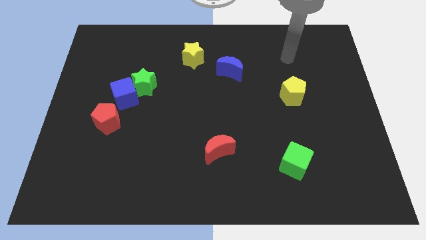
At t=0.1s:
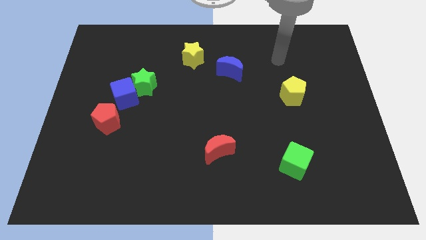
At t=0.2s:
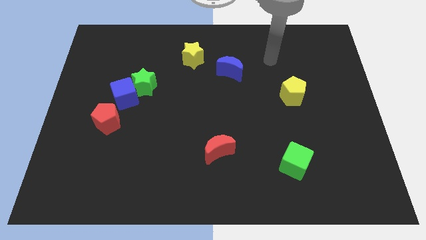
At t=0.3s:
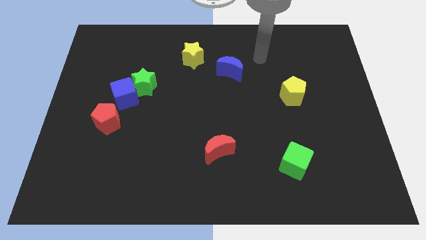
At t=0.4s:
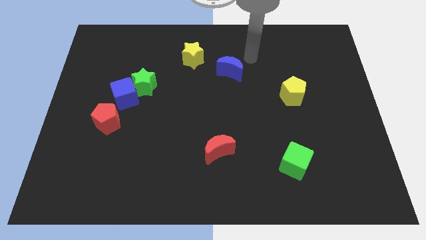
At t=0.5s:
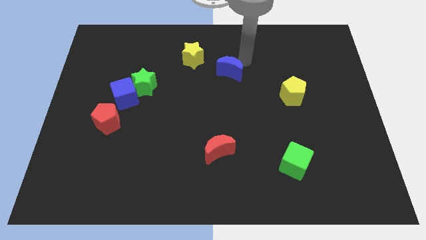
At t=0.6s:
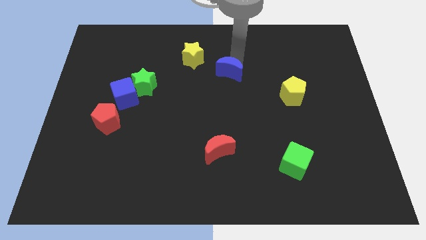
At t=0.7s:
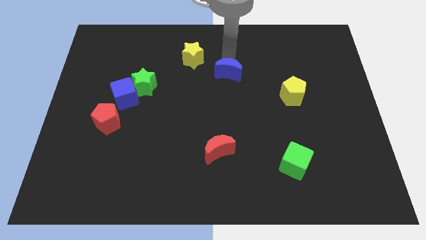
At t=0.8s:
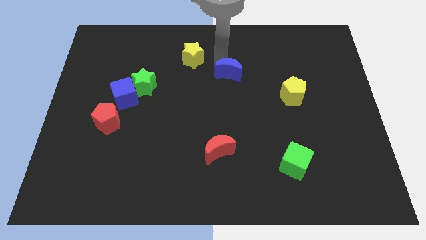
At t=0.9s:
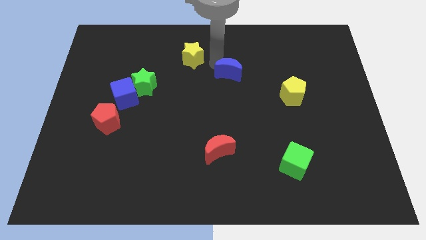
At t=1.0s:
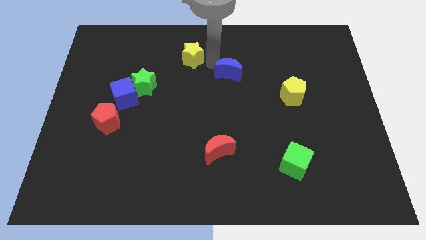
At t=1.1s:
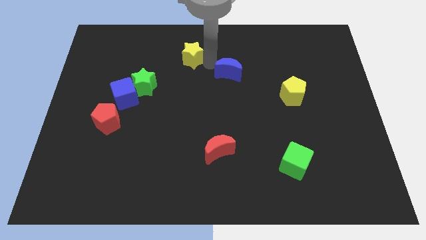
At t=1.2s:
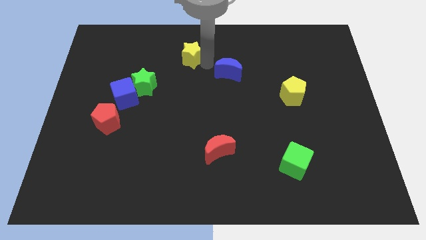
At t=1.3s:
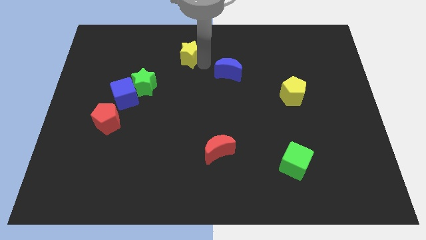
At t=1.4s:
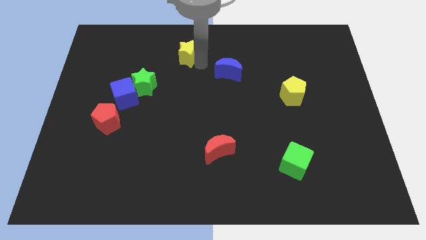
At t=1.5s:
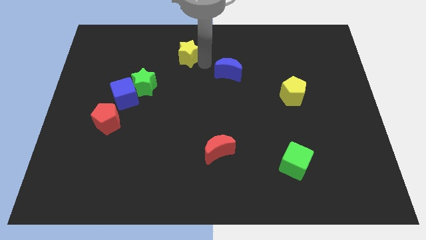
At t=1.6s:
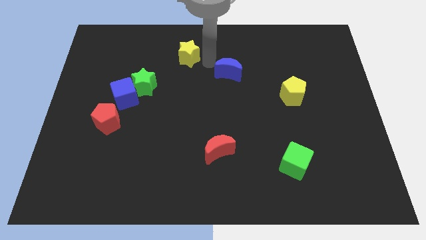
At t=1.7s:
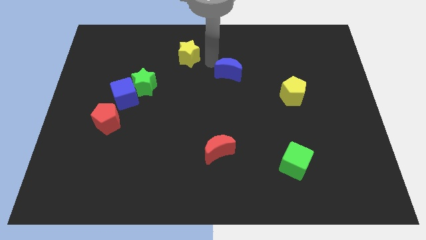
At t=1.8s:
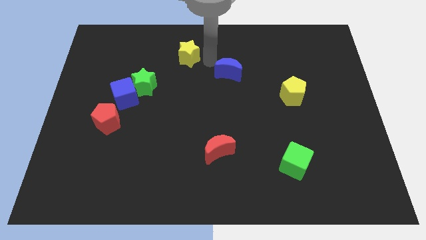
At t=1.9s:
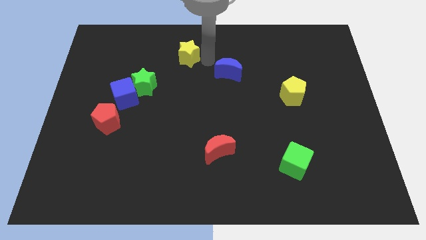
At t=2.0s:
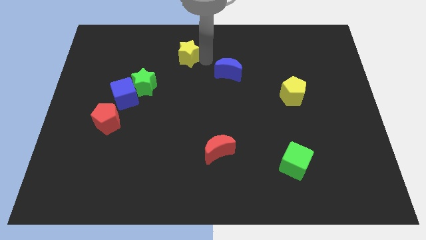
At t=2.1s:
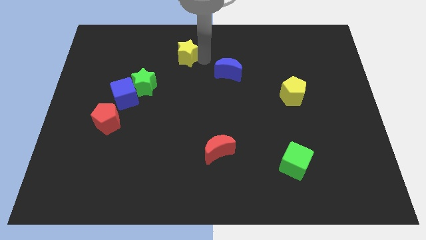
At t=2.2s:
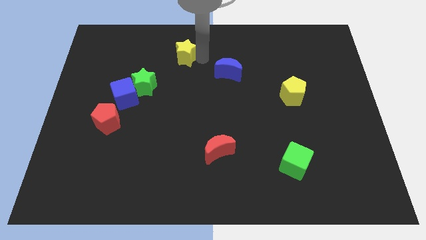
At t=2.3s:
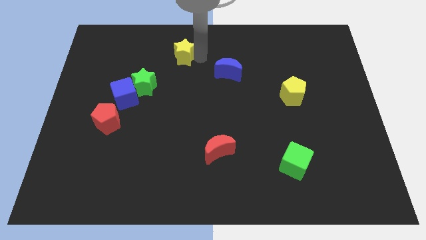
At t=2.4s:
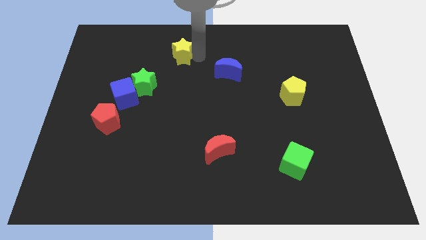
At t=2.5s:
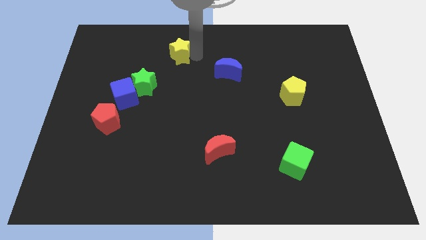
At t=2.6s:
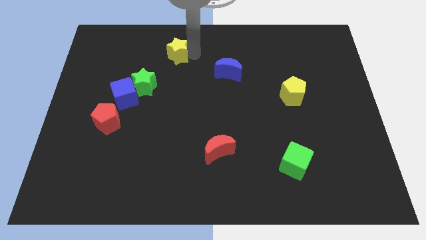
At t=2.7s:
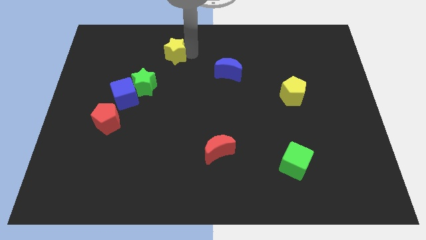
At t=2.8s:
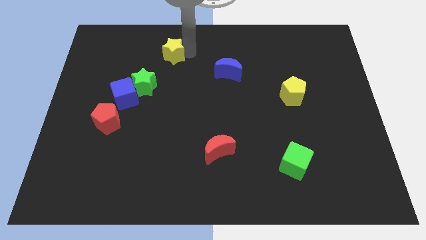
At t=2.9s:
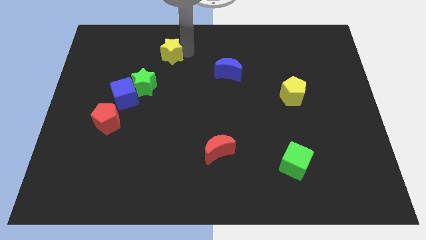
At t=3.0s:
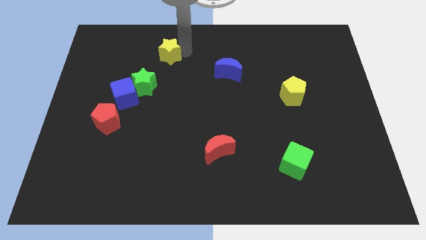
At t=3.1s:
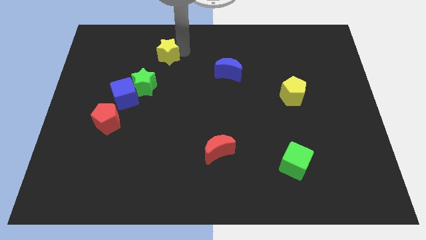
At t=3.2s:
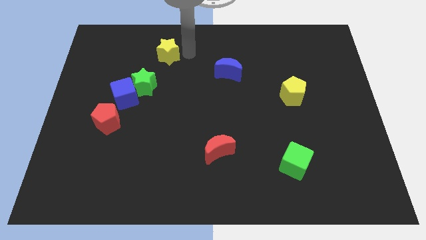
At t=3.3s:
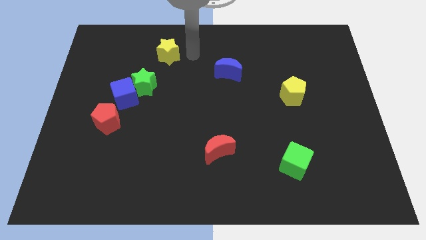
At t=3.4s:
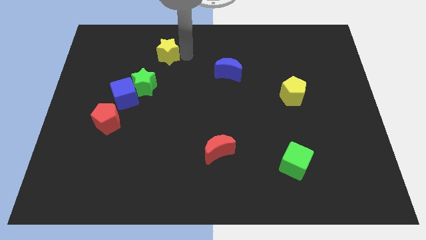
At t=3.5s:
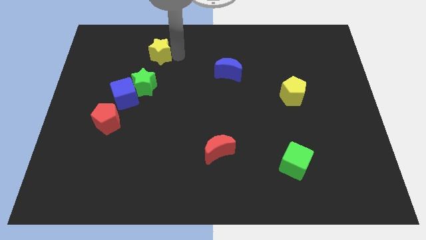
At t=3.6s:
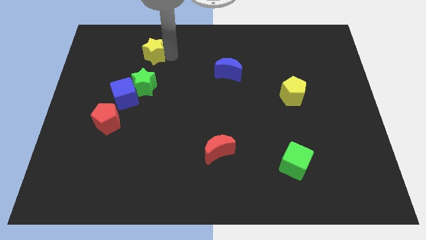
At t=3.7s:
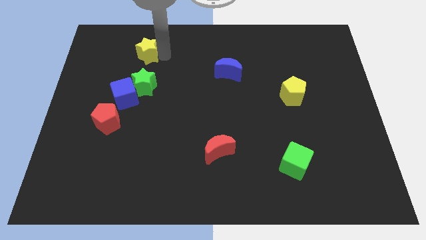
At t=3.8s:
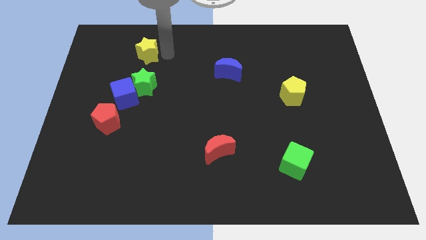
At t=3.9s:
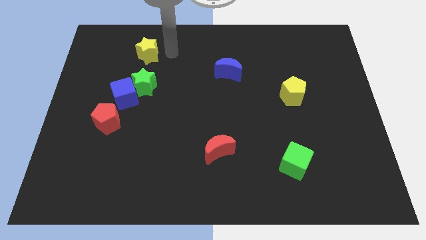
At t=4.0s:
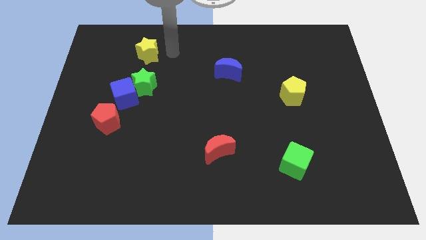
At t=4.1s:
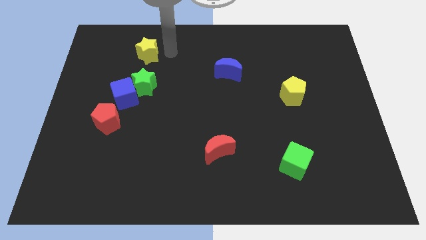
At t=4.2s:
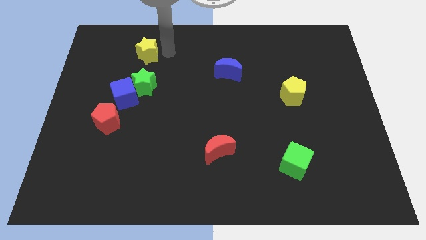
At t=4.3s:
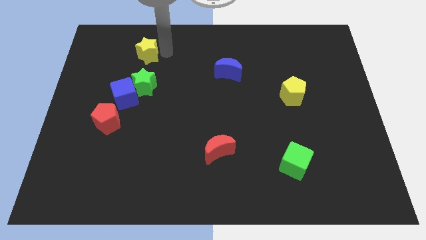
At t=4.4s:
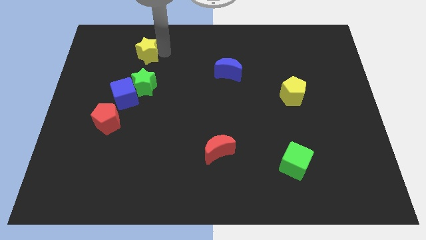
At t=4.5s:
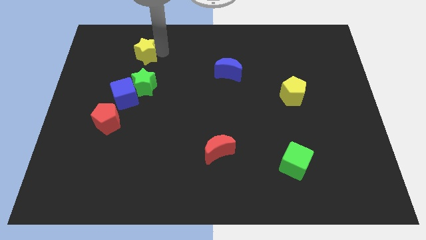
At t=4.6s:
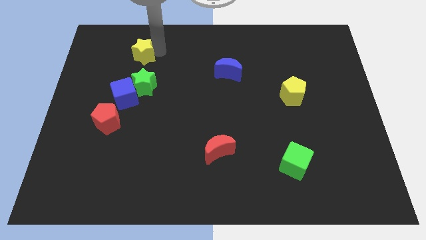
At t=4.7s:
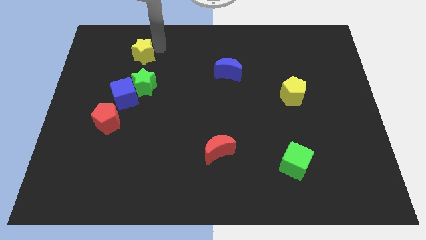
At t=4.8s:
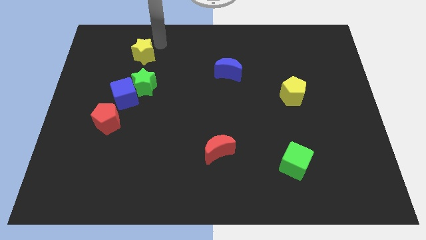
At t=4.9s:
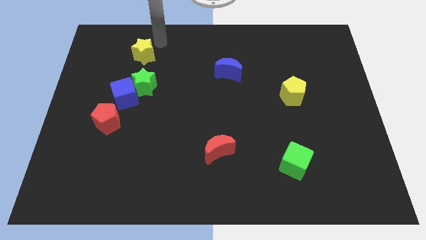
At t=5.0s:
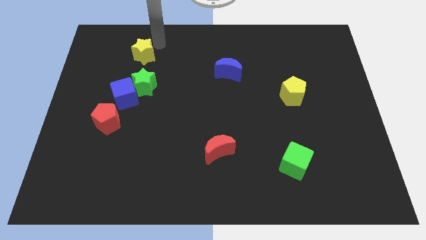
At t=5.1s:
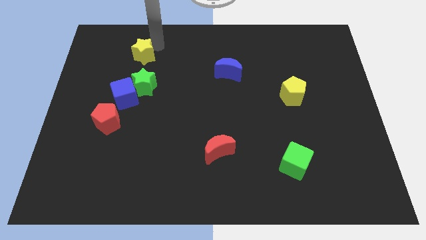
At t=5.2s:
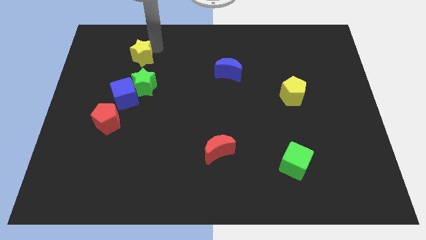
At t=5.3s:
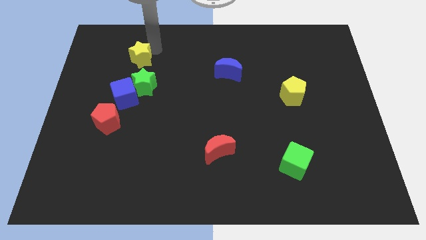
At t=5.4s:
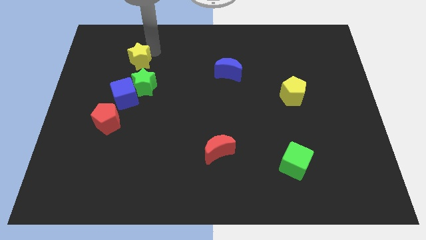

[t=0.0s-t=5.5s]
put the yellow star to the top left side of the green star

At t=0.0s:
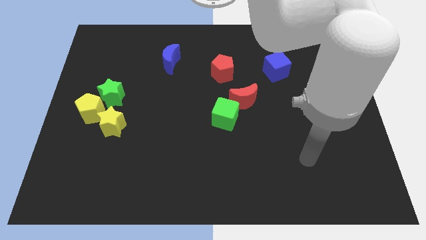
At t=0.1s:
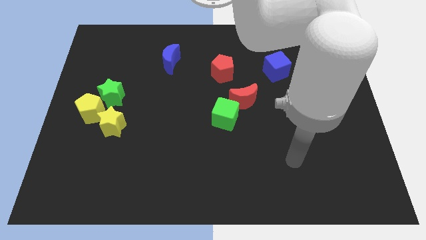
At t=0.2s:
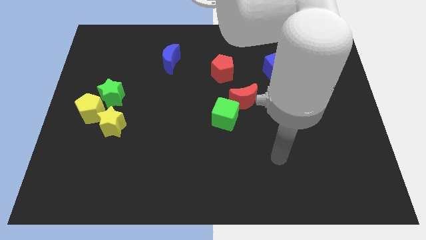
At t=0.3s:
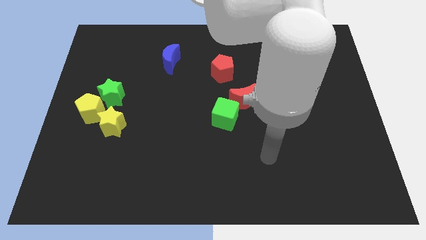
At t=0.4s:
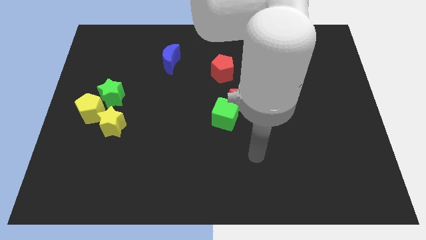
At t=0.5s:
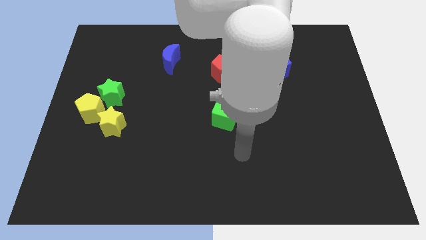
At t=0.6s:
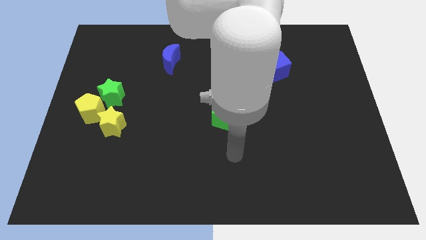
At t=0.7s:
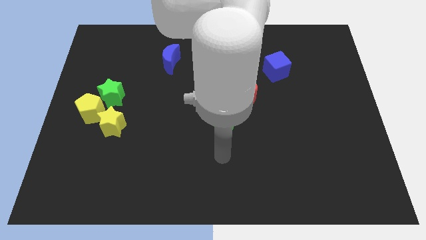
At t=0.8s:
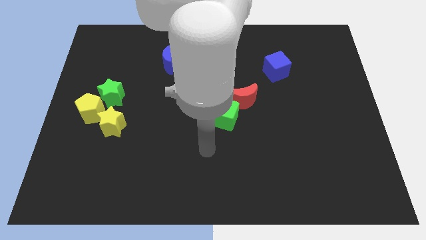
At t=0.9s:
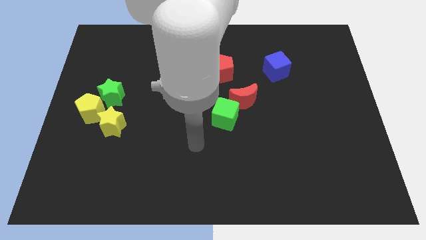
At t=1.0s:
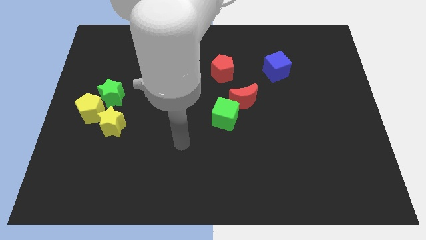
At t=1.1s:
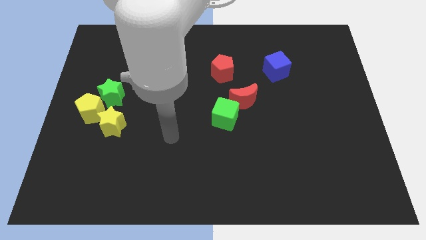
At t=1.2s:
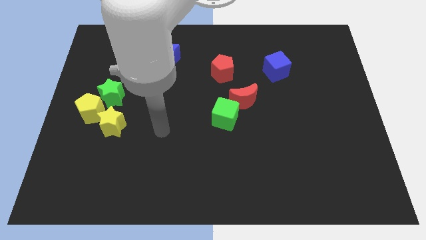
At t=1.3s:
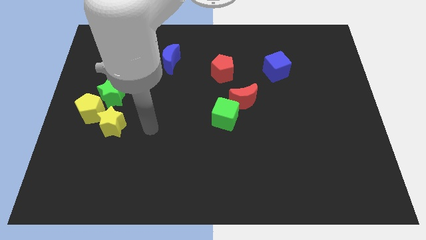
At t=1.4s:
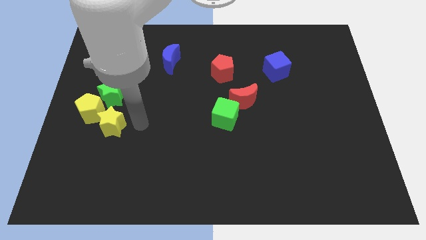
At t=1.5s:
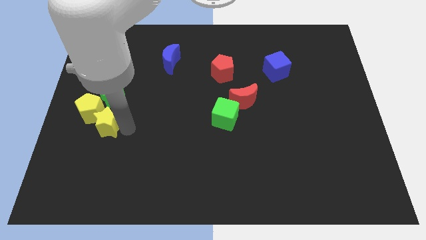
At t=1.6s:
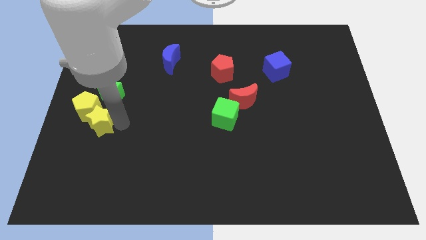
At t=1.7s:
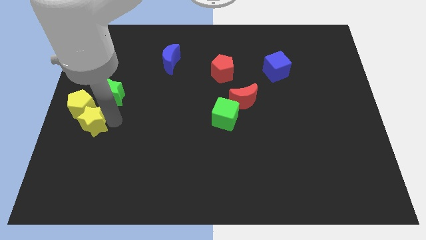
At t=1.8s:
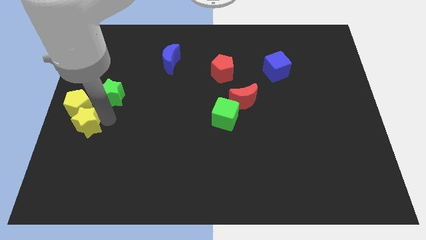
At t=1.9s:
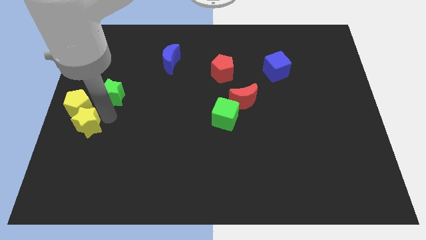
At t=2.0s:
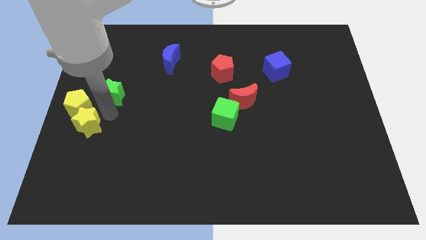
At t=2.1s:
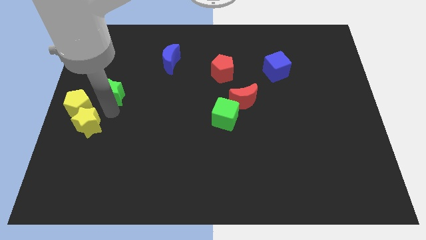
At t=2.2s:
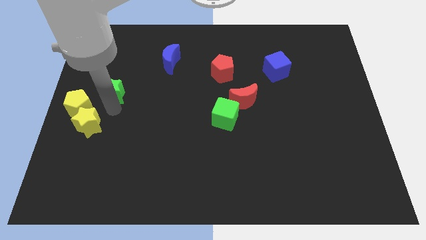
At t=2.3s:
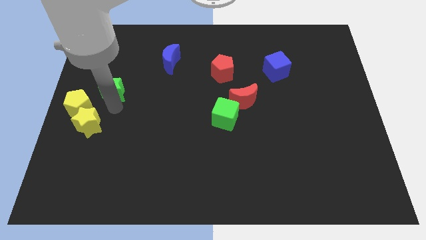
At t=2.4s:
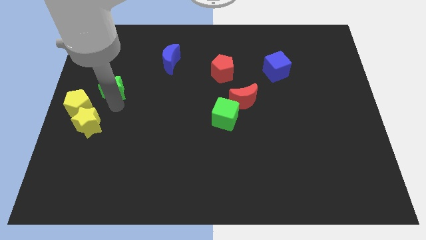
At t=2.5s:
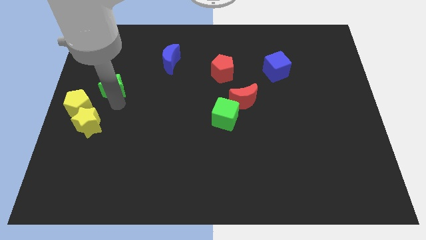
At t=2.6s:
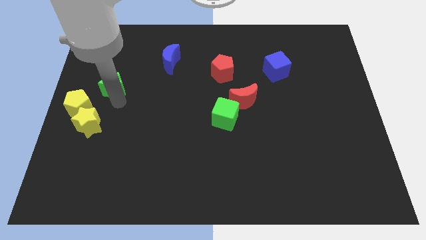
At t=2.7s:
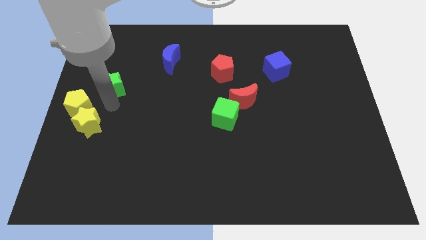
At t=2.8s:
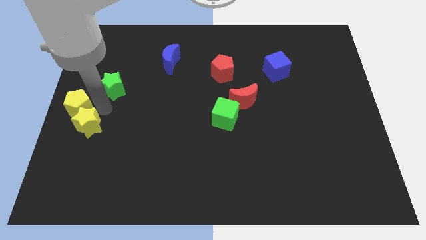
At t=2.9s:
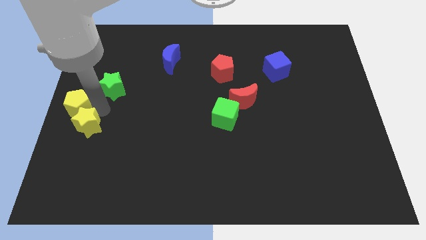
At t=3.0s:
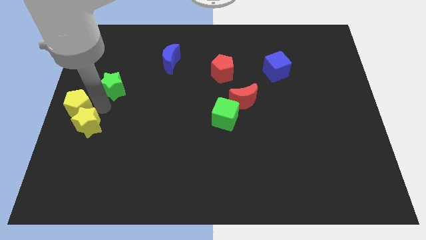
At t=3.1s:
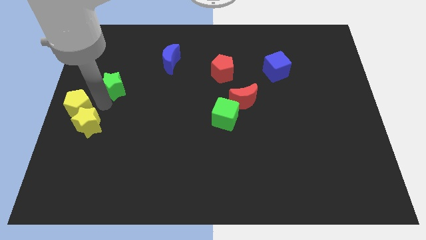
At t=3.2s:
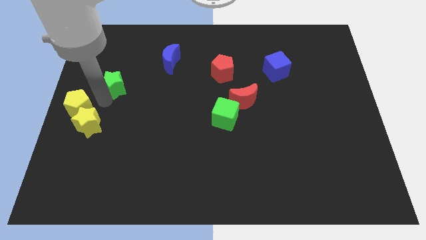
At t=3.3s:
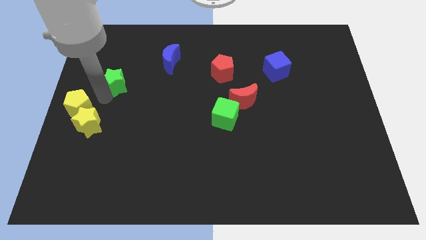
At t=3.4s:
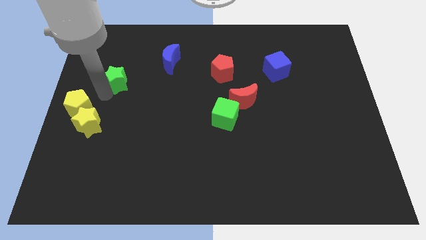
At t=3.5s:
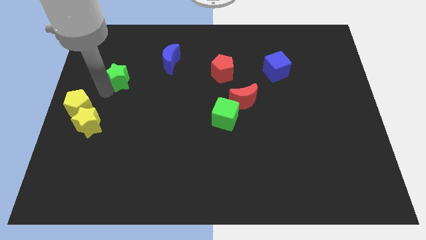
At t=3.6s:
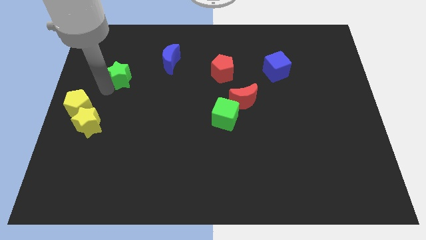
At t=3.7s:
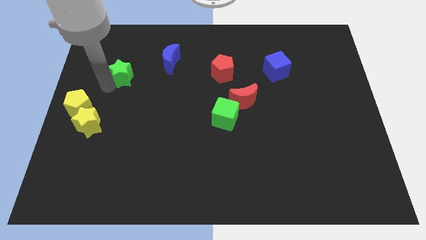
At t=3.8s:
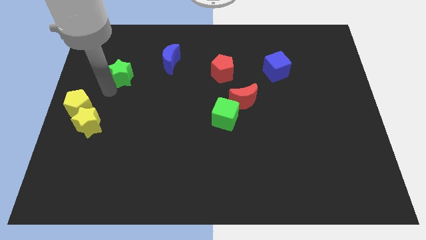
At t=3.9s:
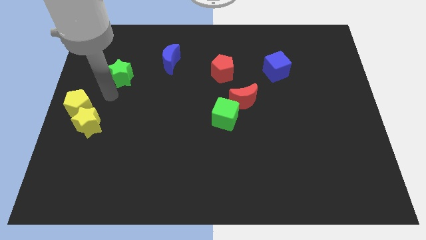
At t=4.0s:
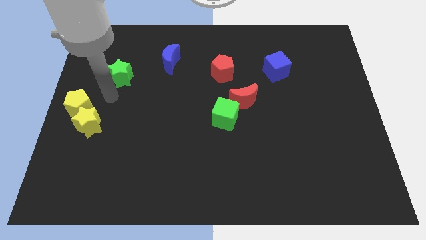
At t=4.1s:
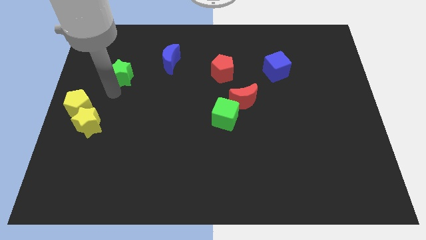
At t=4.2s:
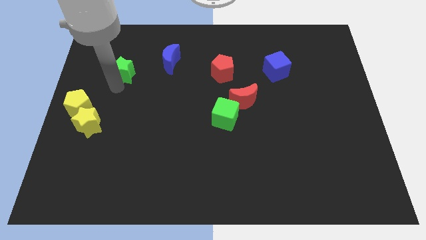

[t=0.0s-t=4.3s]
move the green star just left of the blue moon
